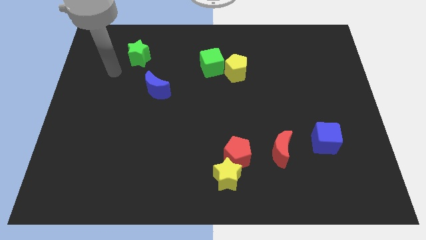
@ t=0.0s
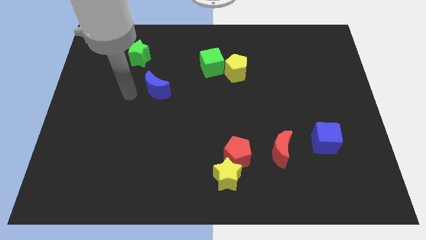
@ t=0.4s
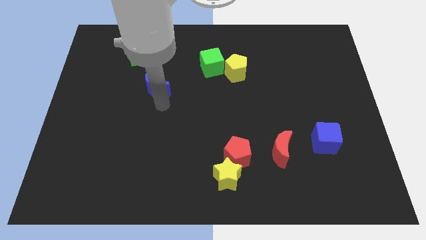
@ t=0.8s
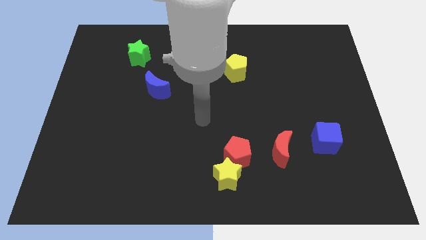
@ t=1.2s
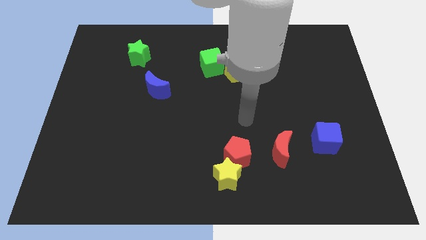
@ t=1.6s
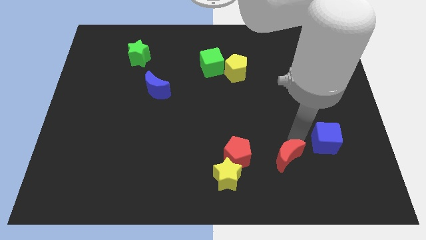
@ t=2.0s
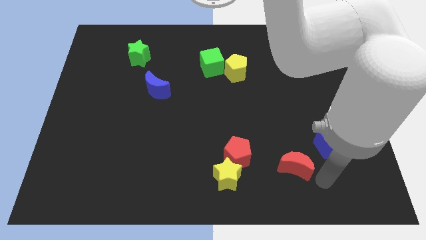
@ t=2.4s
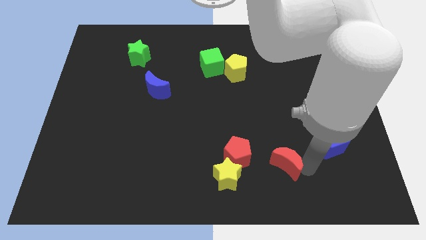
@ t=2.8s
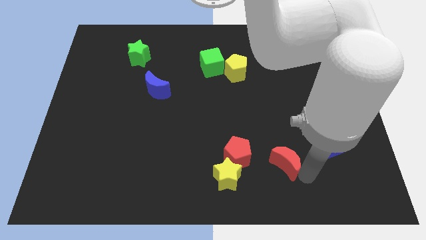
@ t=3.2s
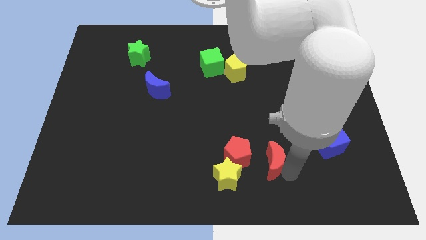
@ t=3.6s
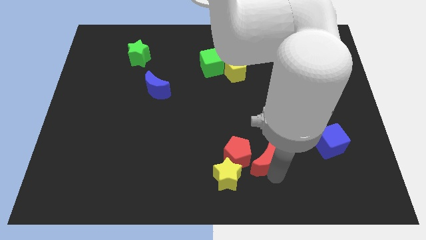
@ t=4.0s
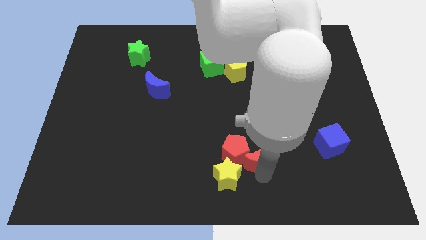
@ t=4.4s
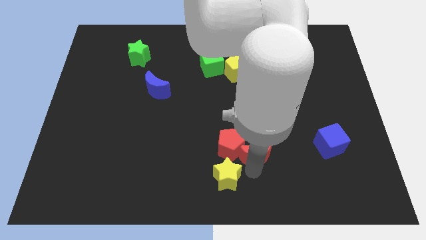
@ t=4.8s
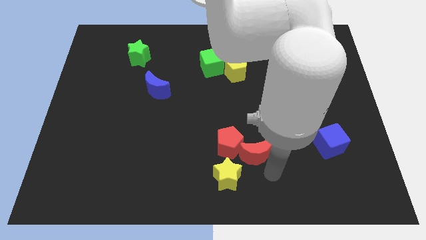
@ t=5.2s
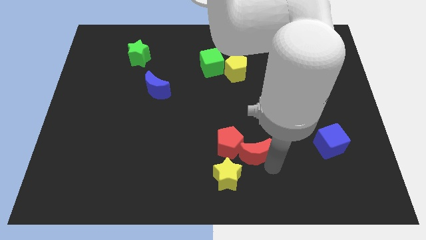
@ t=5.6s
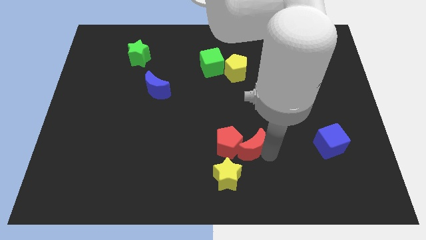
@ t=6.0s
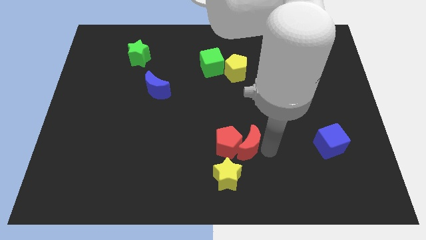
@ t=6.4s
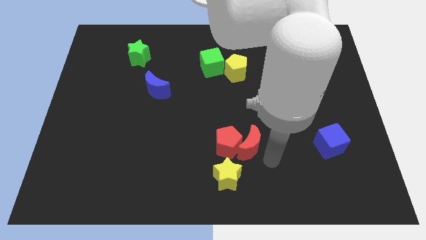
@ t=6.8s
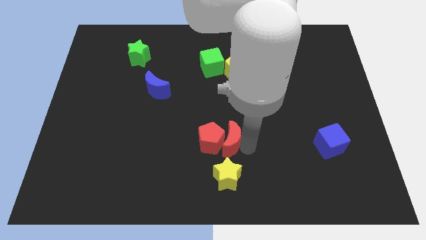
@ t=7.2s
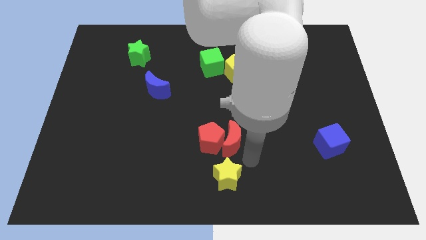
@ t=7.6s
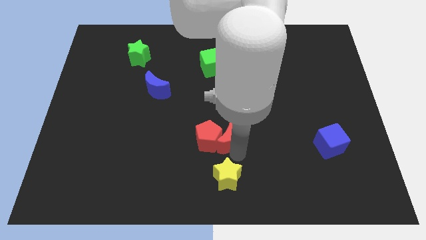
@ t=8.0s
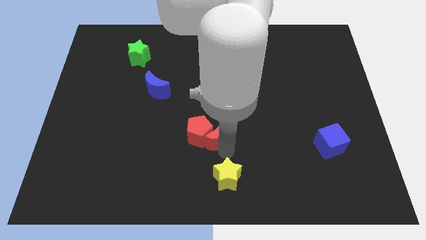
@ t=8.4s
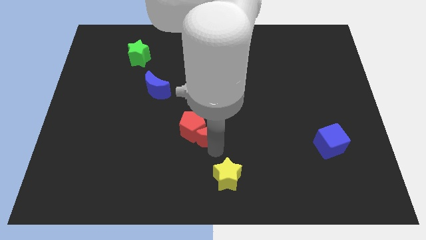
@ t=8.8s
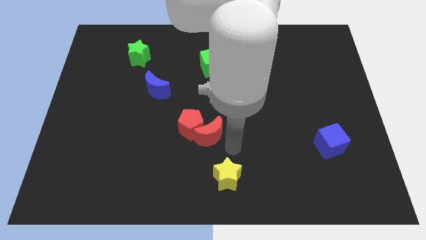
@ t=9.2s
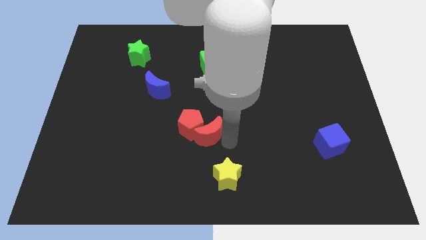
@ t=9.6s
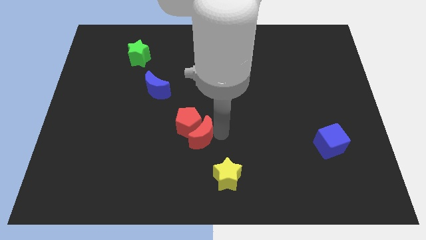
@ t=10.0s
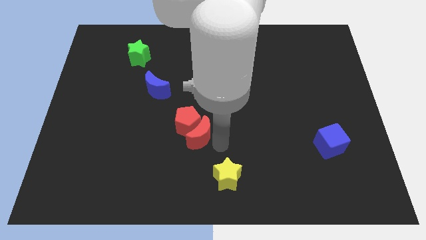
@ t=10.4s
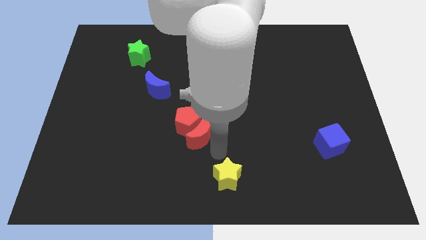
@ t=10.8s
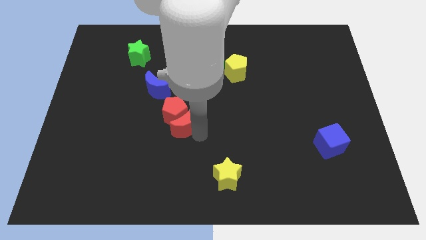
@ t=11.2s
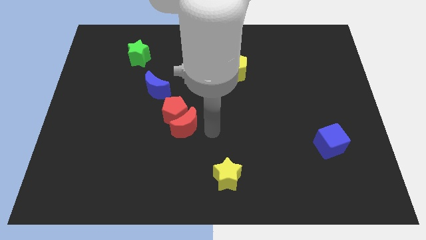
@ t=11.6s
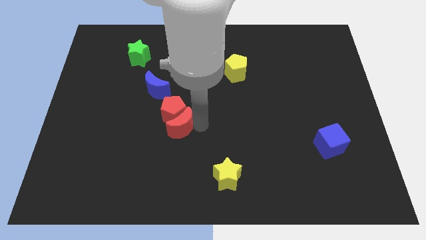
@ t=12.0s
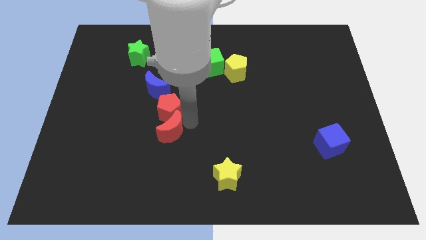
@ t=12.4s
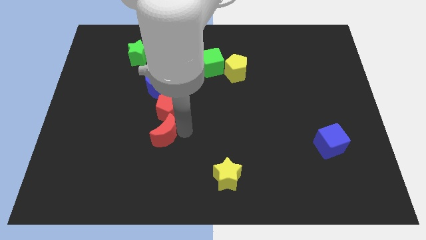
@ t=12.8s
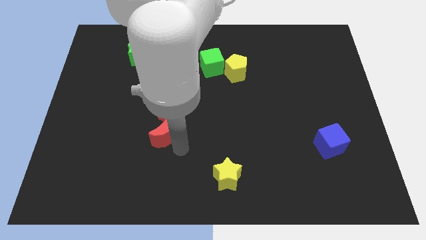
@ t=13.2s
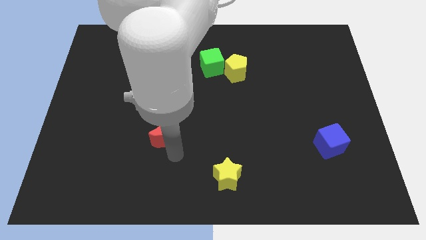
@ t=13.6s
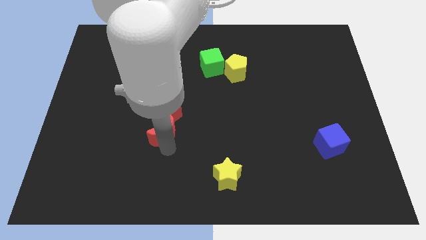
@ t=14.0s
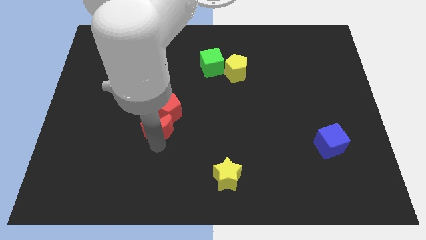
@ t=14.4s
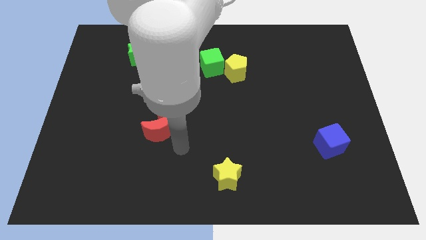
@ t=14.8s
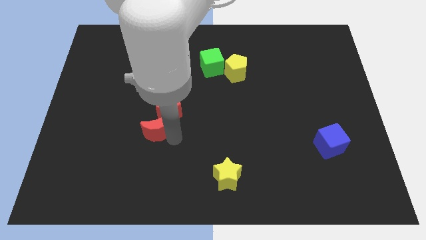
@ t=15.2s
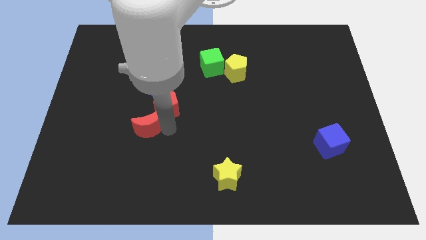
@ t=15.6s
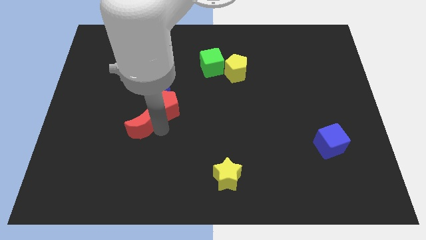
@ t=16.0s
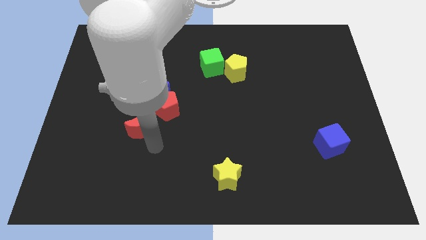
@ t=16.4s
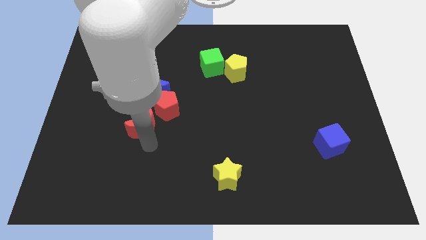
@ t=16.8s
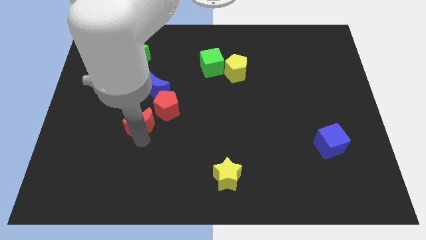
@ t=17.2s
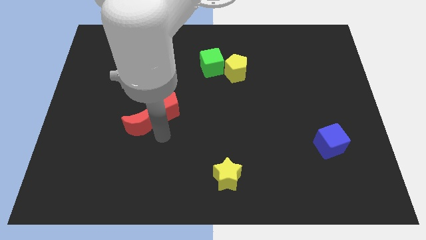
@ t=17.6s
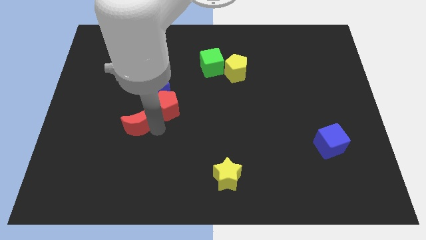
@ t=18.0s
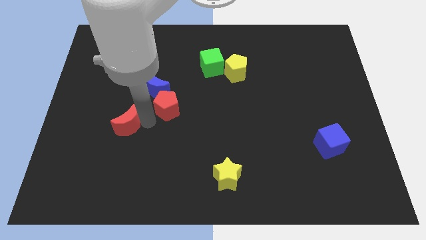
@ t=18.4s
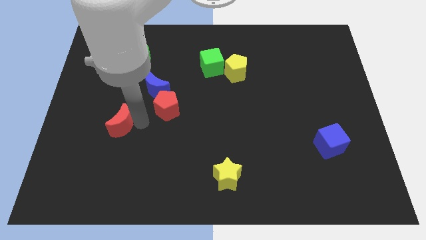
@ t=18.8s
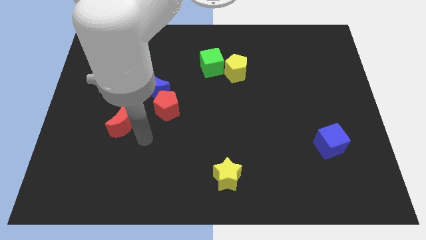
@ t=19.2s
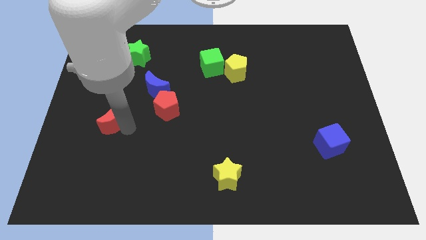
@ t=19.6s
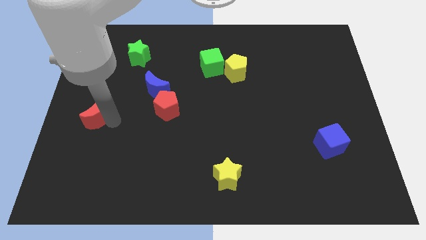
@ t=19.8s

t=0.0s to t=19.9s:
slide the red moon to the center left

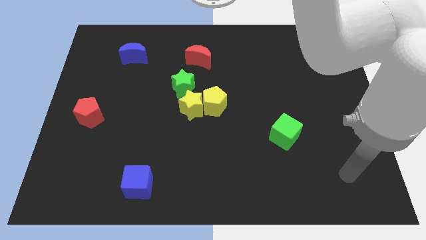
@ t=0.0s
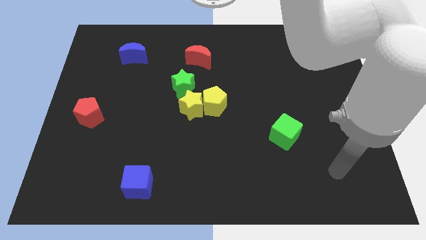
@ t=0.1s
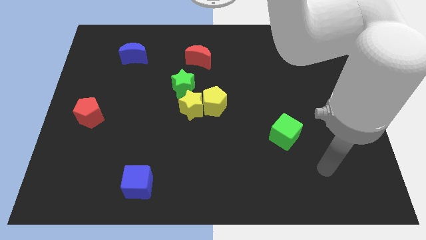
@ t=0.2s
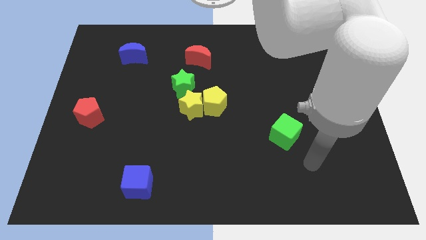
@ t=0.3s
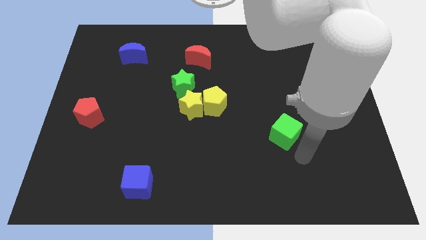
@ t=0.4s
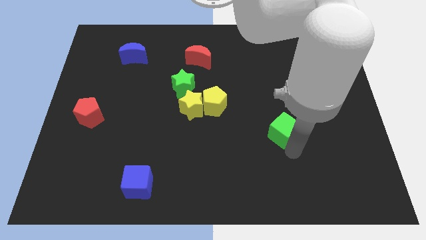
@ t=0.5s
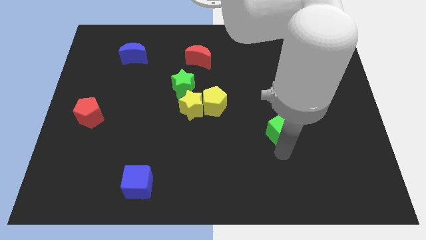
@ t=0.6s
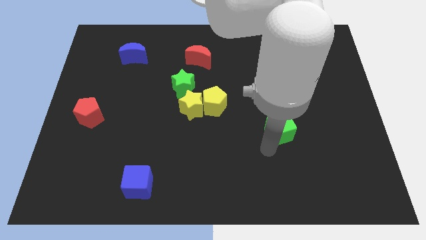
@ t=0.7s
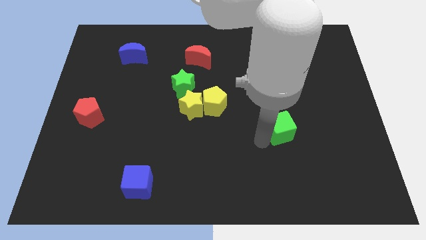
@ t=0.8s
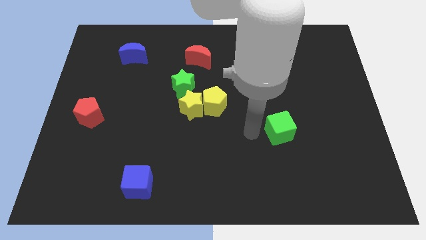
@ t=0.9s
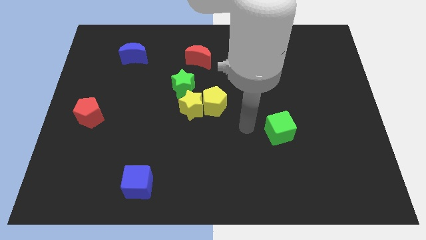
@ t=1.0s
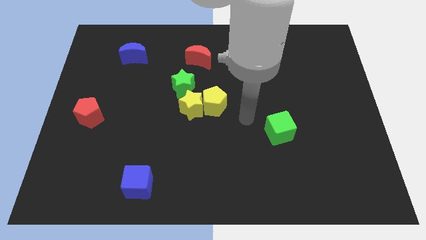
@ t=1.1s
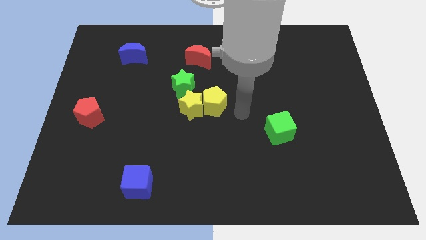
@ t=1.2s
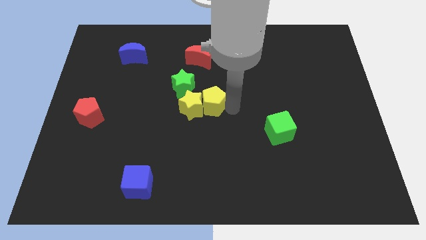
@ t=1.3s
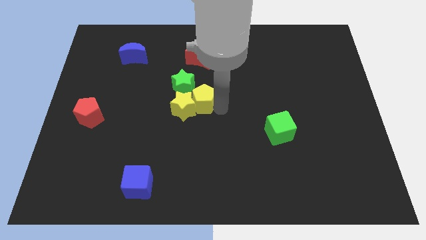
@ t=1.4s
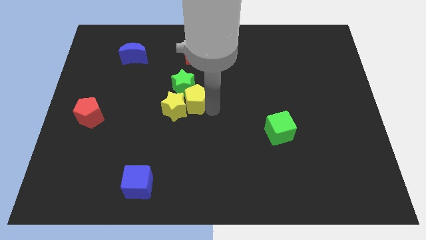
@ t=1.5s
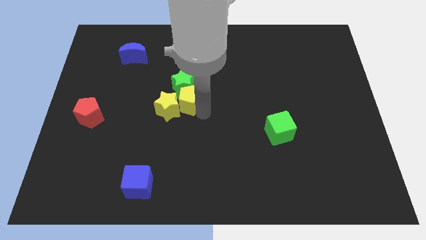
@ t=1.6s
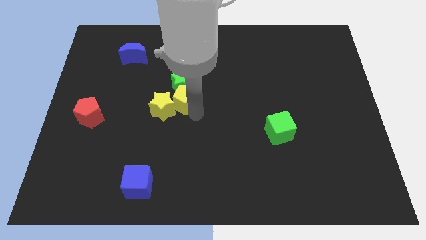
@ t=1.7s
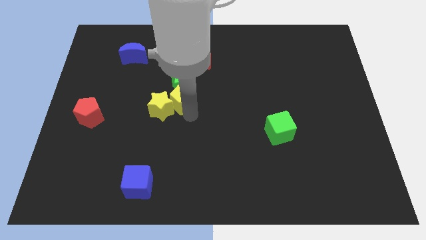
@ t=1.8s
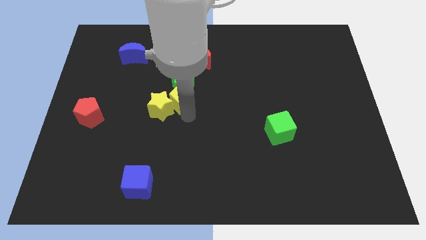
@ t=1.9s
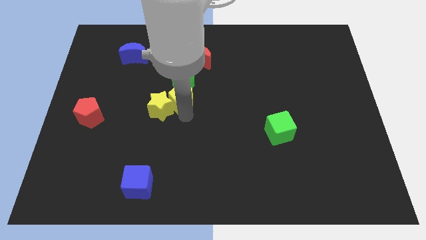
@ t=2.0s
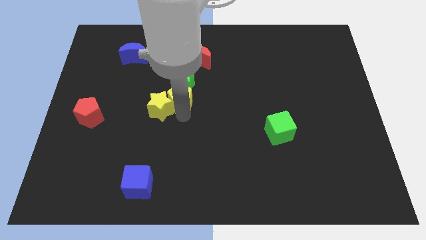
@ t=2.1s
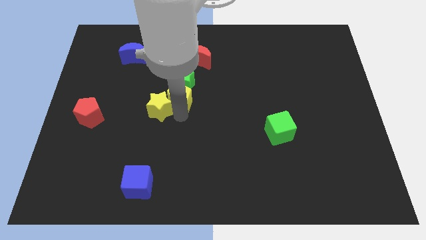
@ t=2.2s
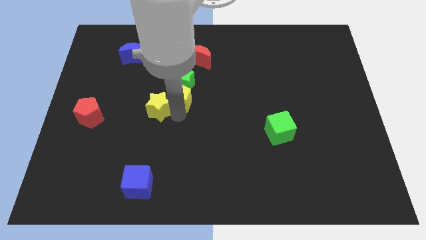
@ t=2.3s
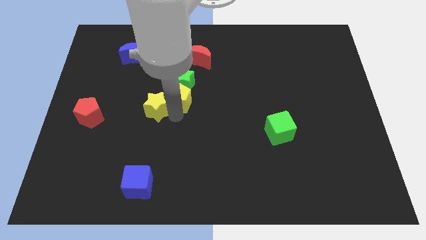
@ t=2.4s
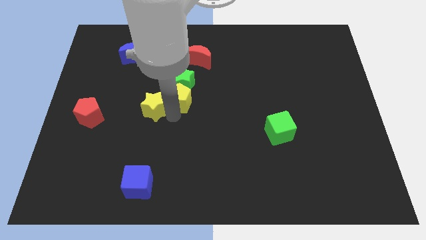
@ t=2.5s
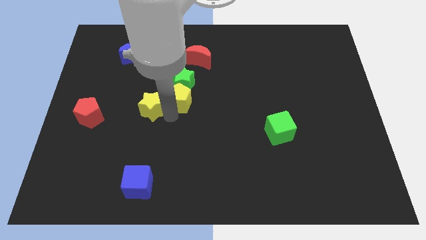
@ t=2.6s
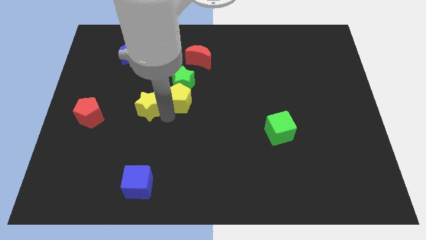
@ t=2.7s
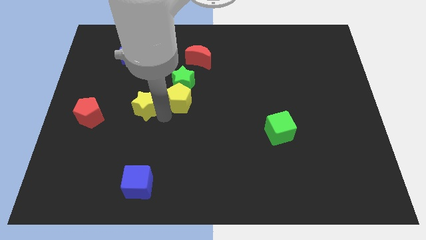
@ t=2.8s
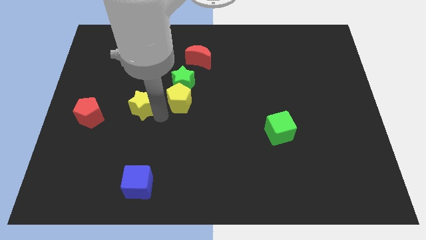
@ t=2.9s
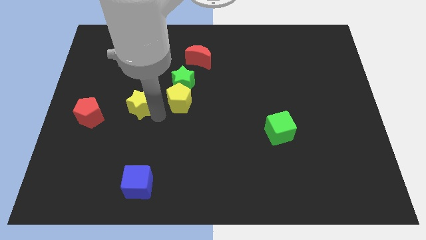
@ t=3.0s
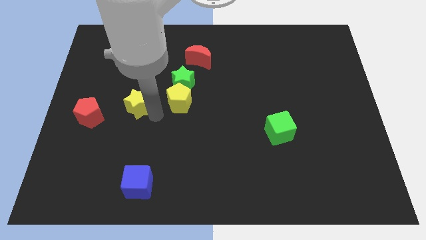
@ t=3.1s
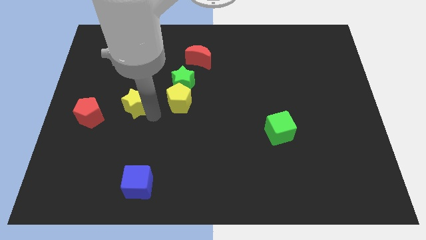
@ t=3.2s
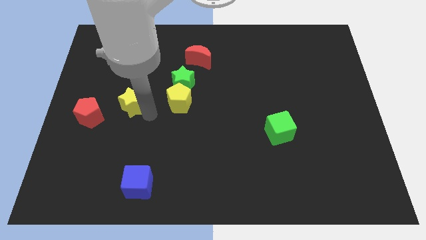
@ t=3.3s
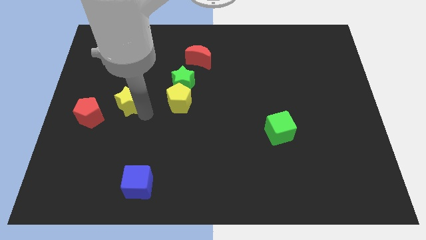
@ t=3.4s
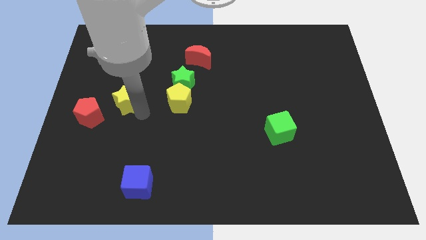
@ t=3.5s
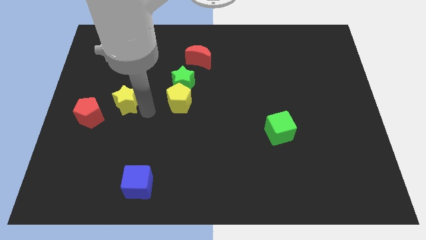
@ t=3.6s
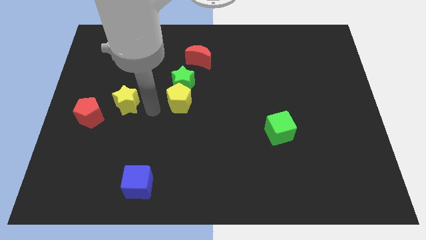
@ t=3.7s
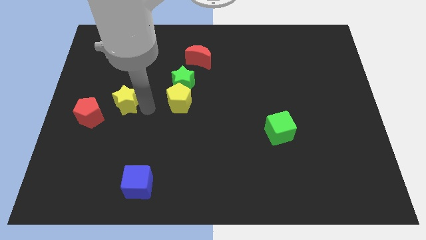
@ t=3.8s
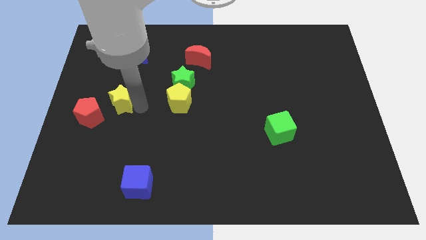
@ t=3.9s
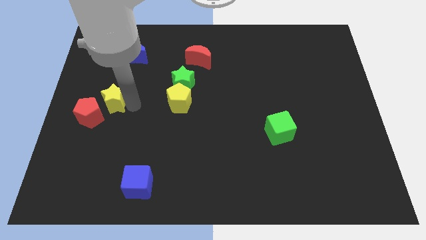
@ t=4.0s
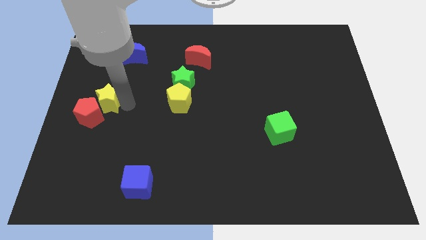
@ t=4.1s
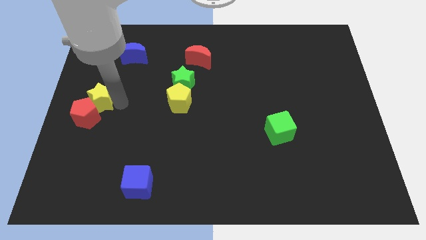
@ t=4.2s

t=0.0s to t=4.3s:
put the yellow star to the left side of the board
